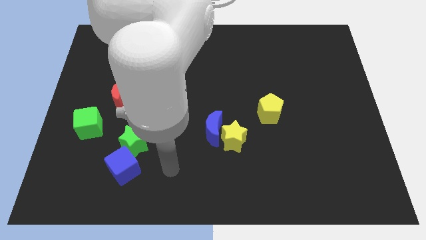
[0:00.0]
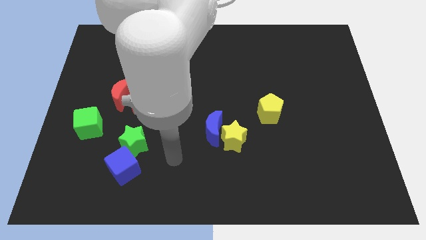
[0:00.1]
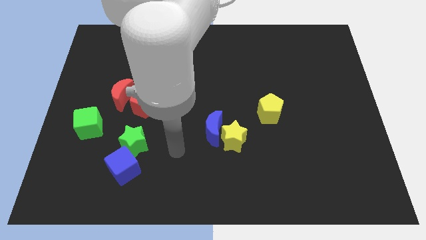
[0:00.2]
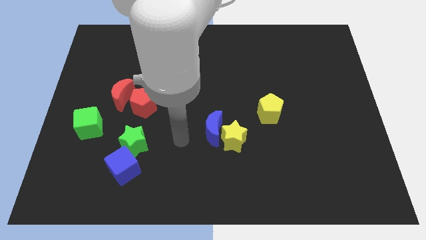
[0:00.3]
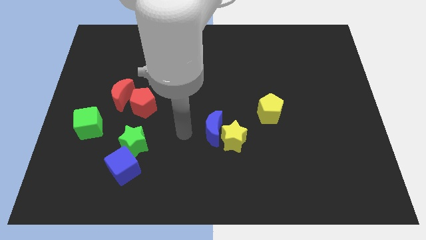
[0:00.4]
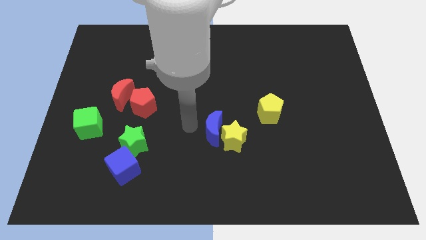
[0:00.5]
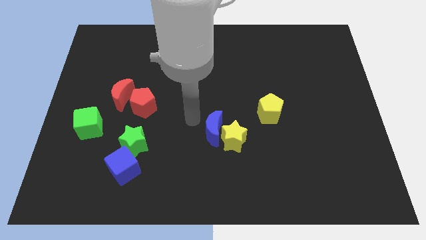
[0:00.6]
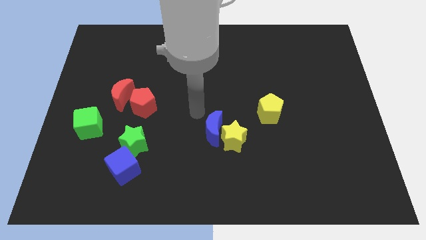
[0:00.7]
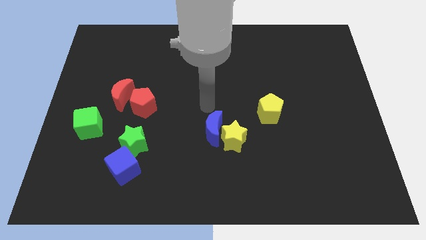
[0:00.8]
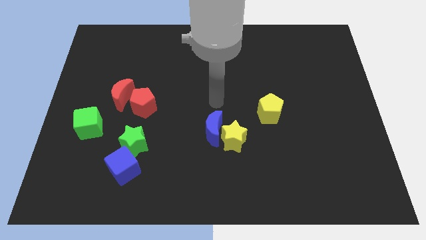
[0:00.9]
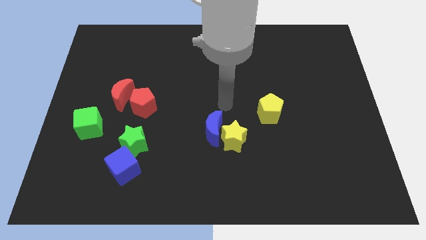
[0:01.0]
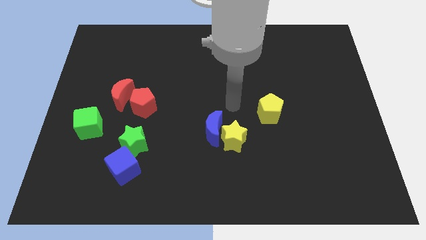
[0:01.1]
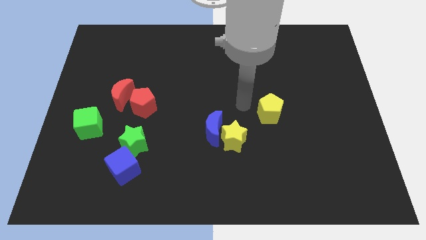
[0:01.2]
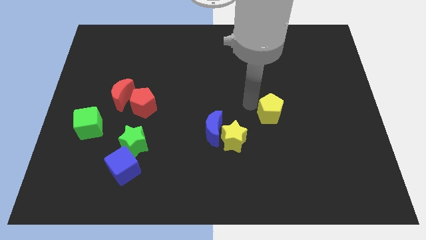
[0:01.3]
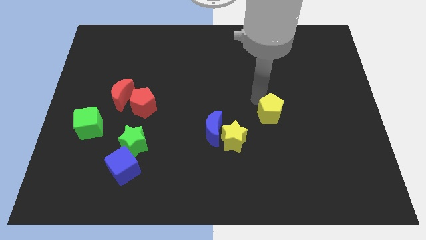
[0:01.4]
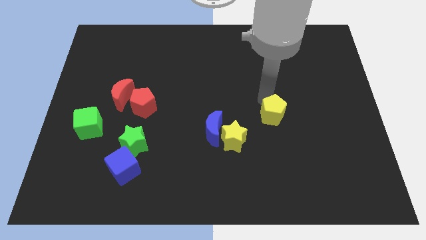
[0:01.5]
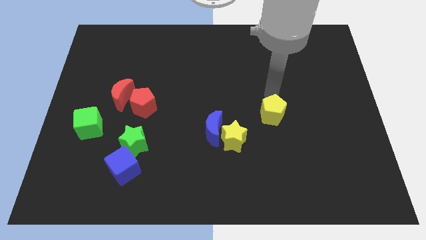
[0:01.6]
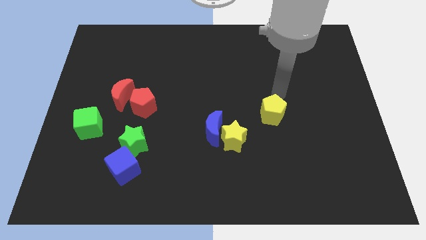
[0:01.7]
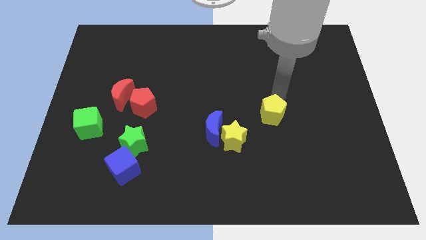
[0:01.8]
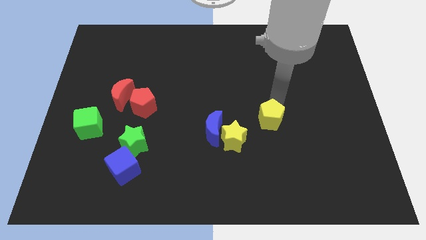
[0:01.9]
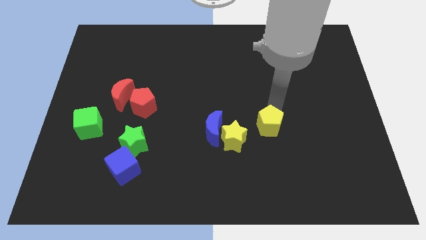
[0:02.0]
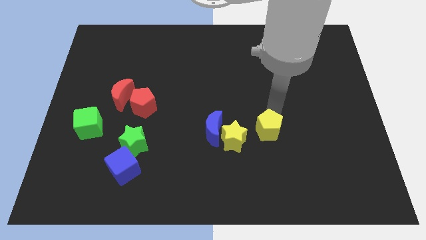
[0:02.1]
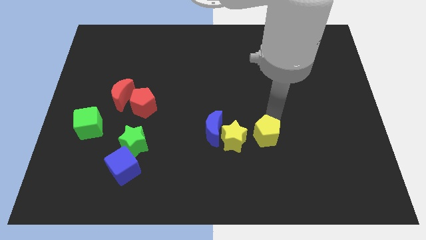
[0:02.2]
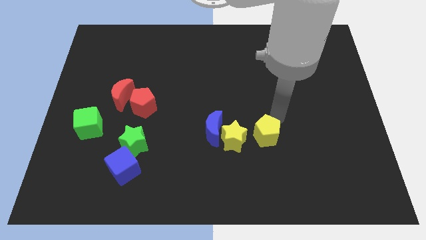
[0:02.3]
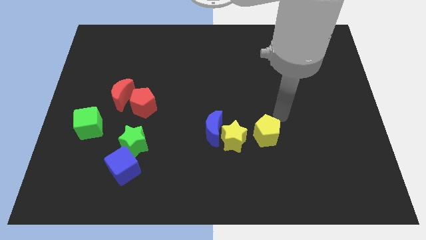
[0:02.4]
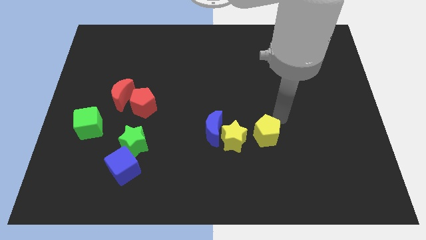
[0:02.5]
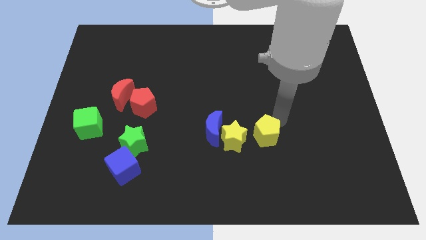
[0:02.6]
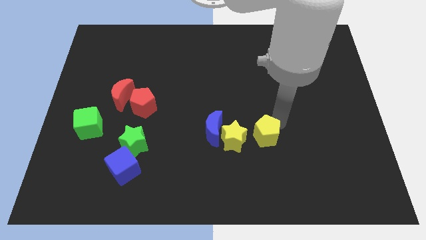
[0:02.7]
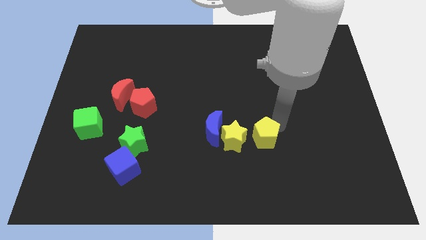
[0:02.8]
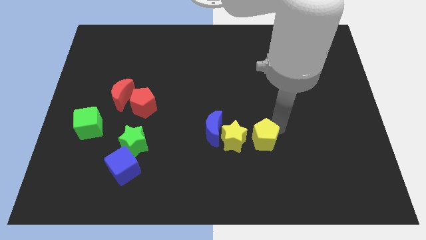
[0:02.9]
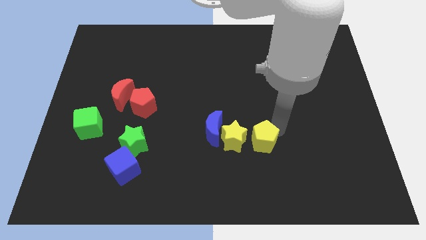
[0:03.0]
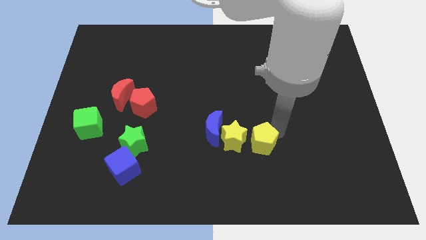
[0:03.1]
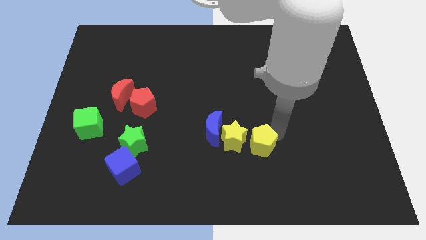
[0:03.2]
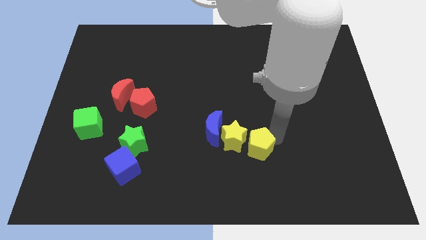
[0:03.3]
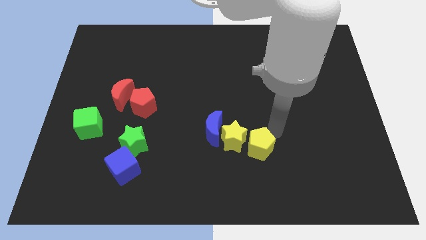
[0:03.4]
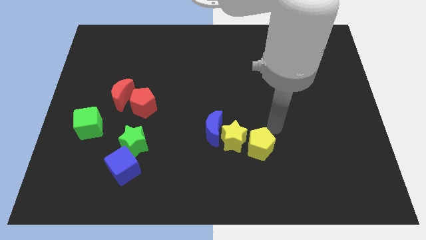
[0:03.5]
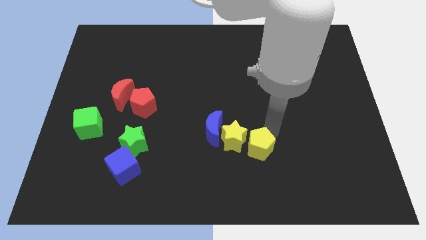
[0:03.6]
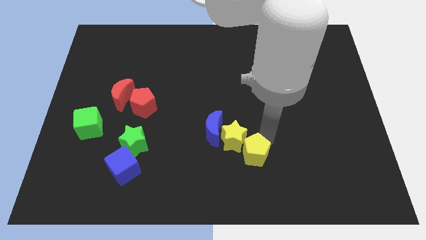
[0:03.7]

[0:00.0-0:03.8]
slide the yellow pentagon to the bottom of the yellow star

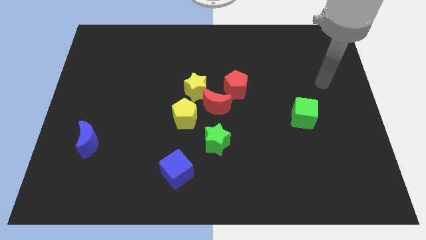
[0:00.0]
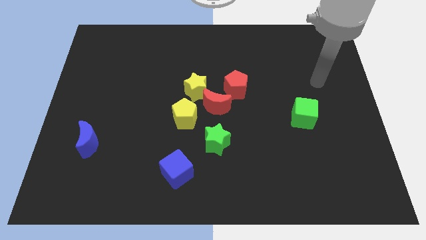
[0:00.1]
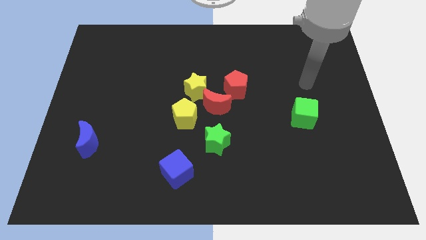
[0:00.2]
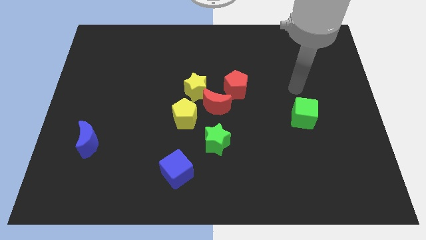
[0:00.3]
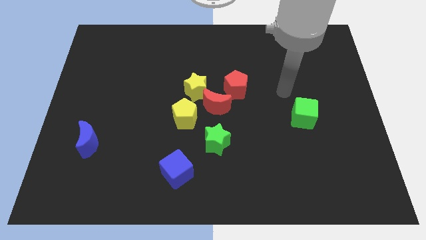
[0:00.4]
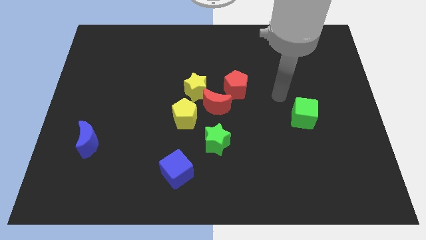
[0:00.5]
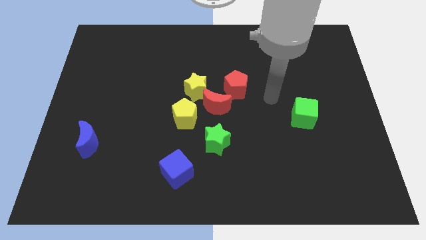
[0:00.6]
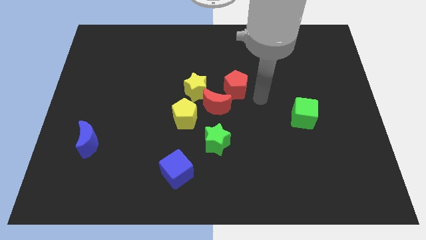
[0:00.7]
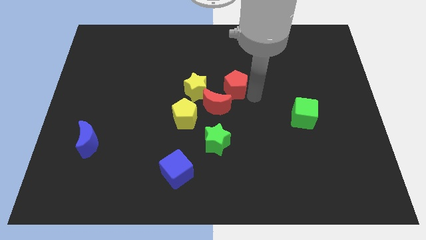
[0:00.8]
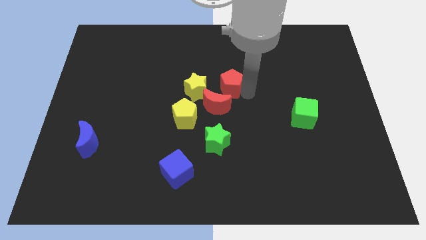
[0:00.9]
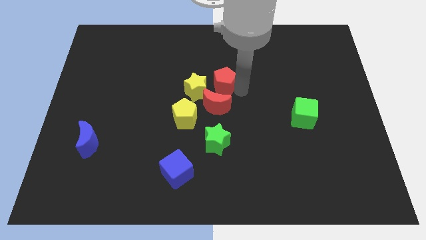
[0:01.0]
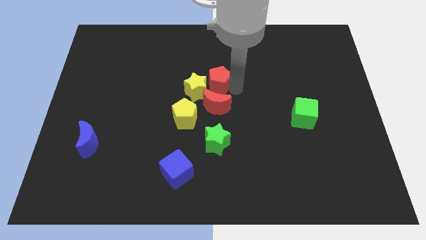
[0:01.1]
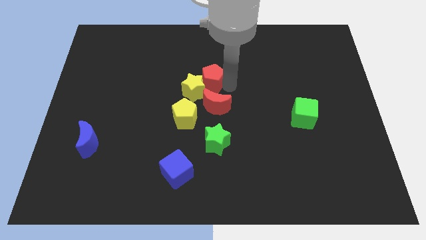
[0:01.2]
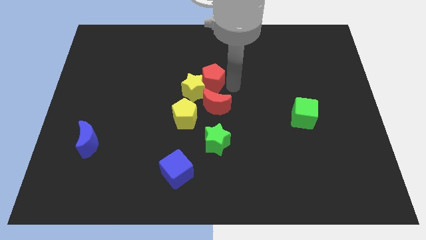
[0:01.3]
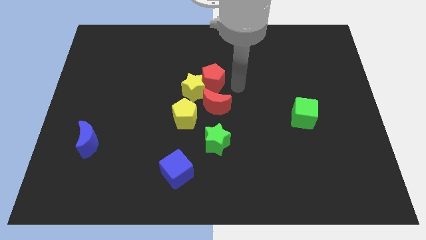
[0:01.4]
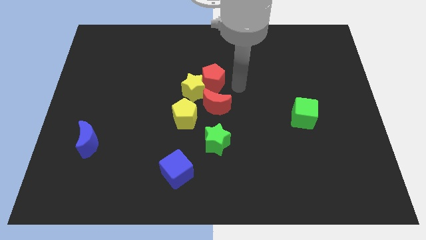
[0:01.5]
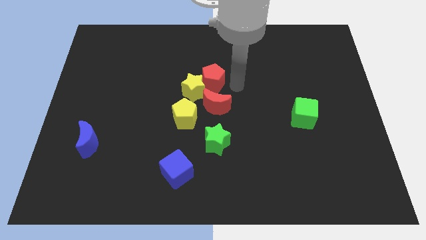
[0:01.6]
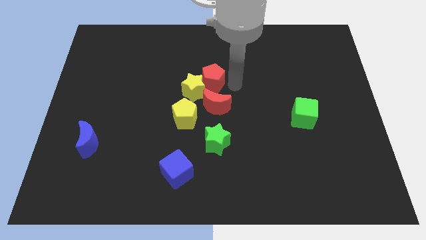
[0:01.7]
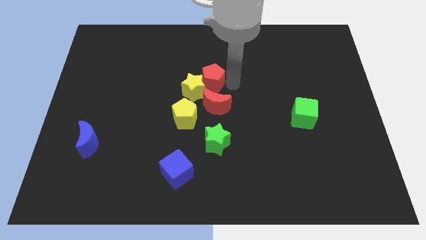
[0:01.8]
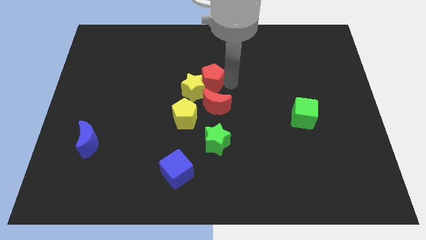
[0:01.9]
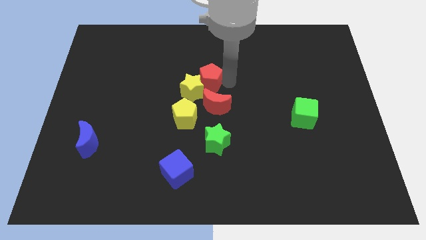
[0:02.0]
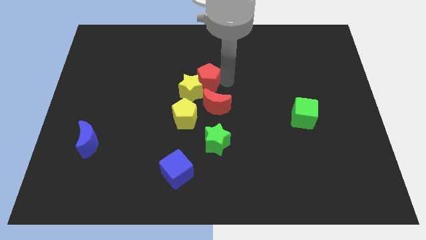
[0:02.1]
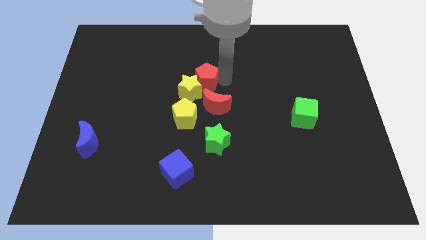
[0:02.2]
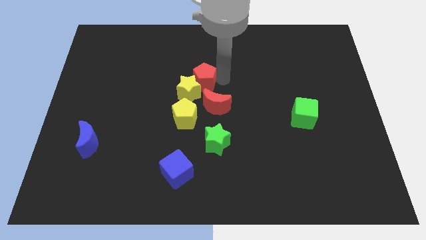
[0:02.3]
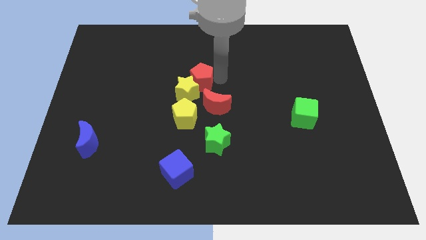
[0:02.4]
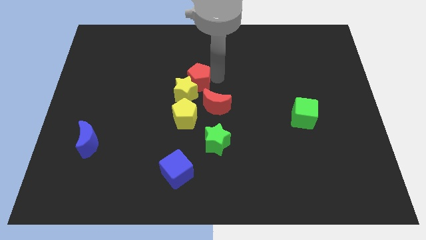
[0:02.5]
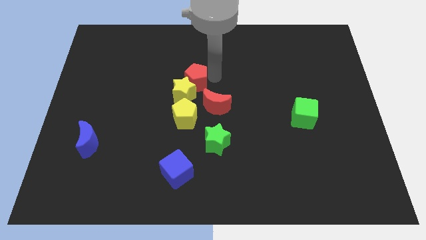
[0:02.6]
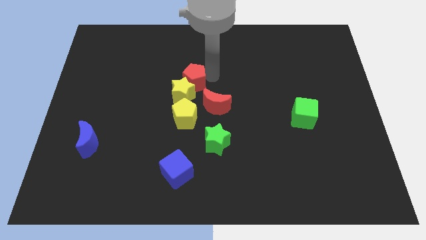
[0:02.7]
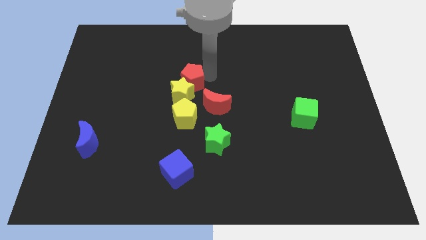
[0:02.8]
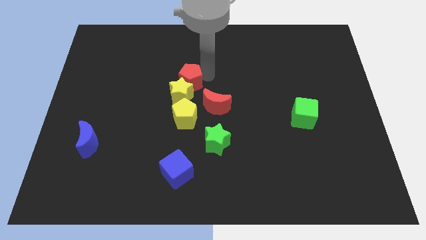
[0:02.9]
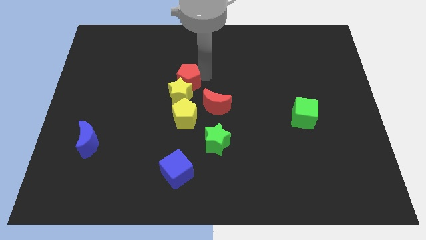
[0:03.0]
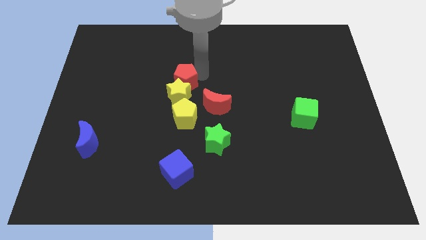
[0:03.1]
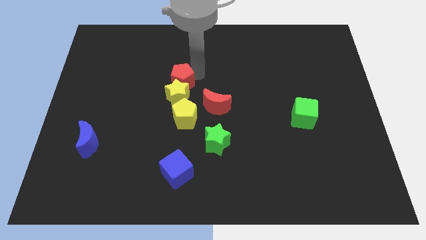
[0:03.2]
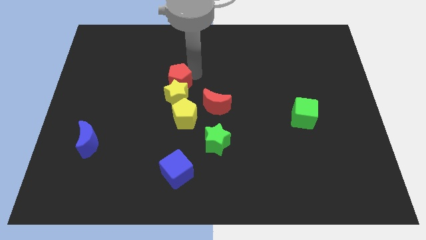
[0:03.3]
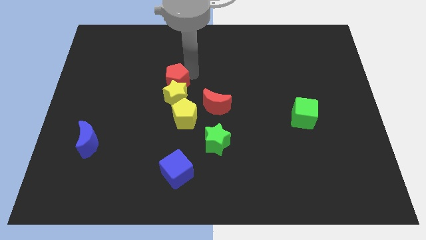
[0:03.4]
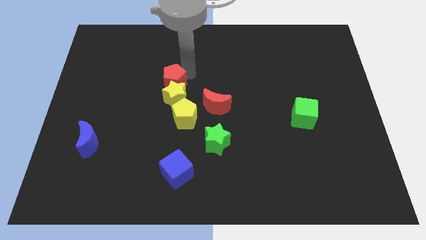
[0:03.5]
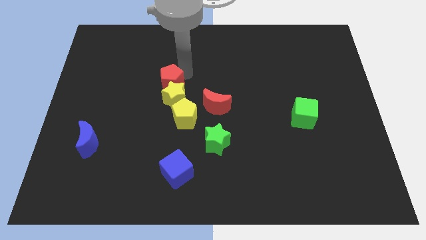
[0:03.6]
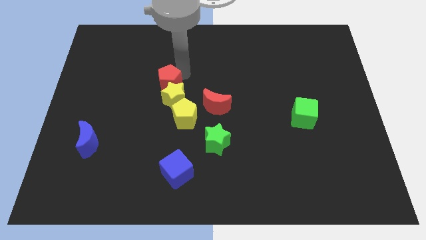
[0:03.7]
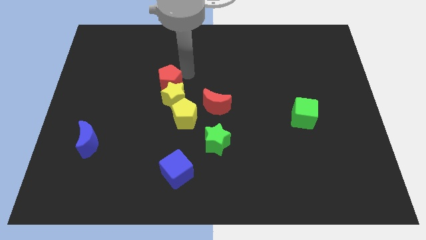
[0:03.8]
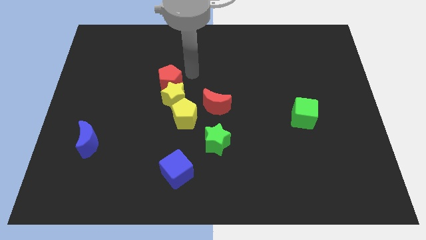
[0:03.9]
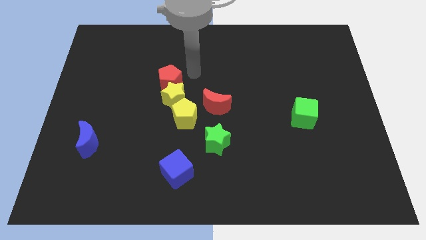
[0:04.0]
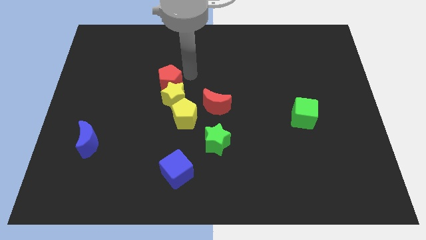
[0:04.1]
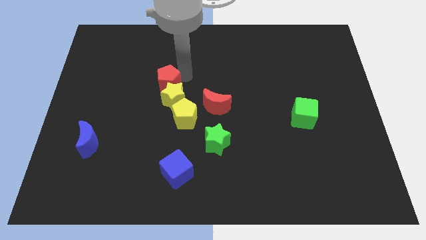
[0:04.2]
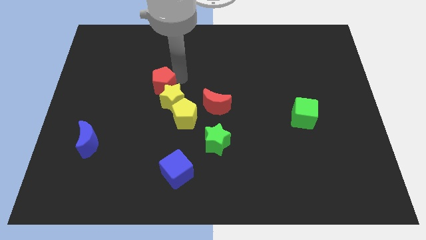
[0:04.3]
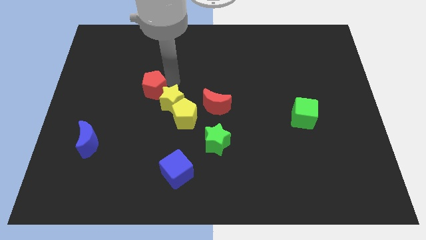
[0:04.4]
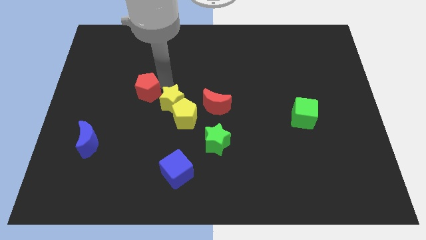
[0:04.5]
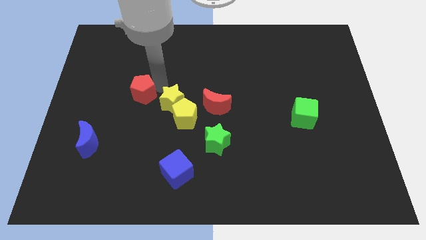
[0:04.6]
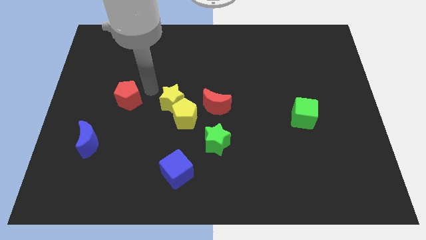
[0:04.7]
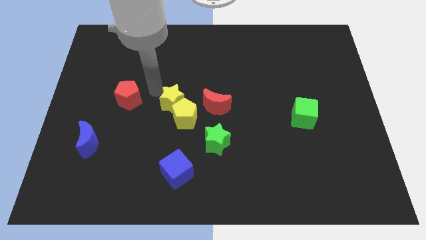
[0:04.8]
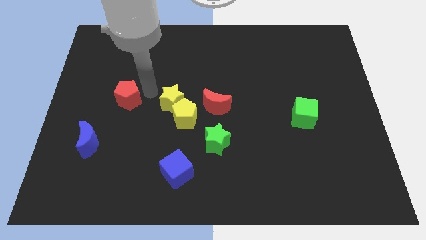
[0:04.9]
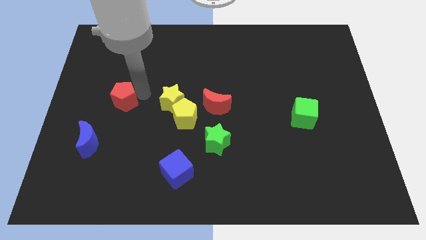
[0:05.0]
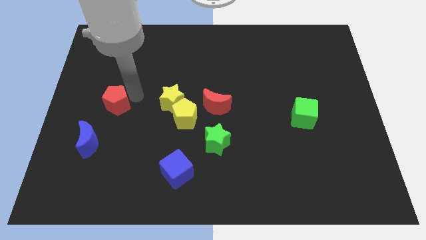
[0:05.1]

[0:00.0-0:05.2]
slide the red pentagon to the top side of the blue moon
